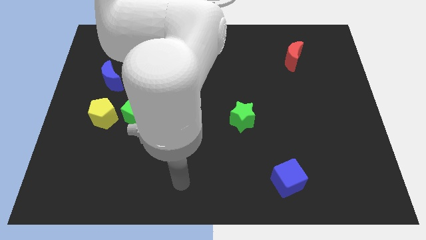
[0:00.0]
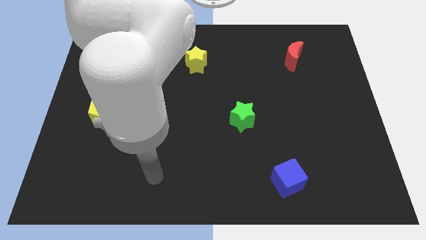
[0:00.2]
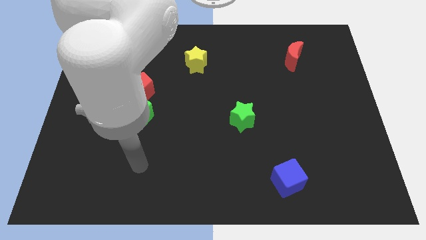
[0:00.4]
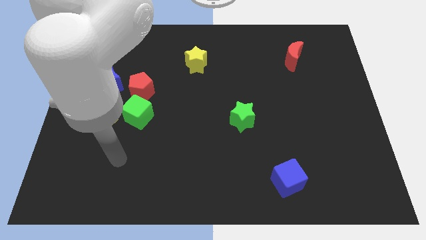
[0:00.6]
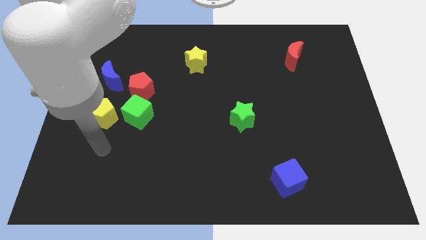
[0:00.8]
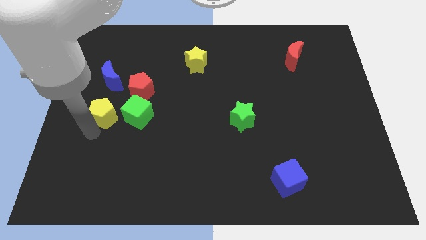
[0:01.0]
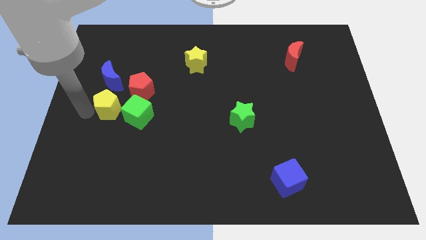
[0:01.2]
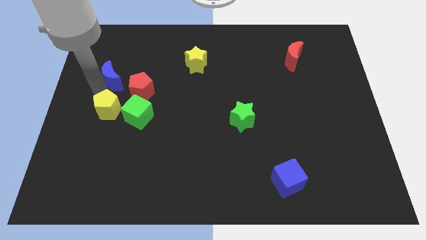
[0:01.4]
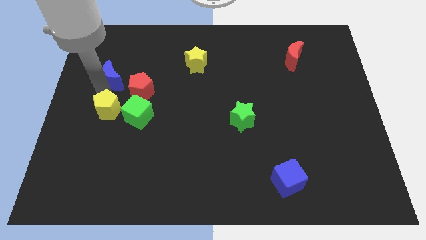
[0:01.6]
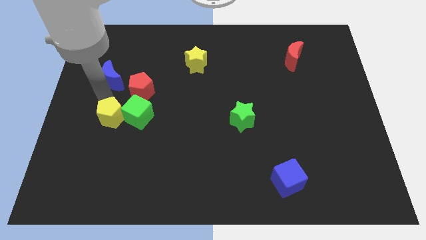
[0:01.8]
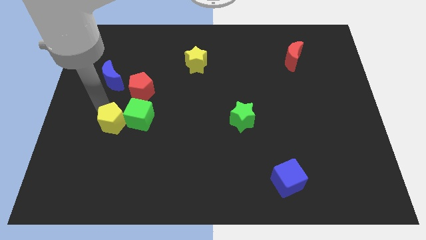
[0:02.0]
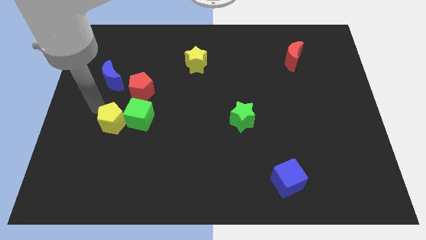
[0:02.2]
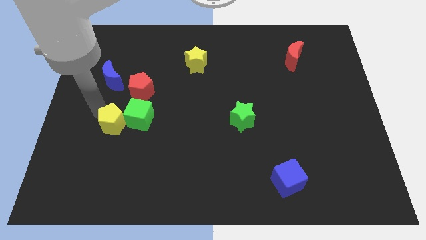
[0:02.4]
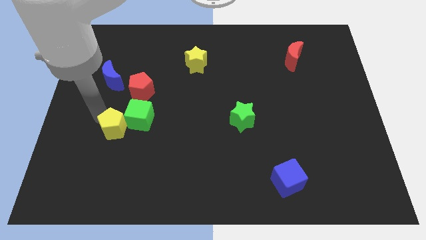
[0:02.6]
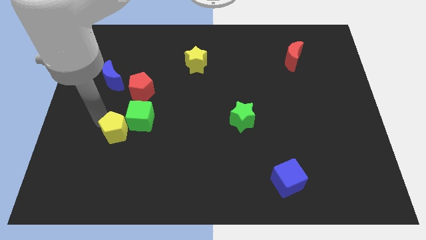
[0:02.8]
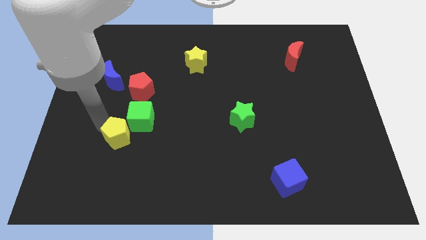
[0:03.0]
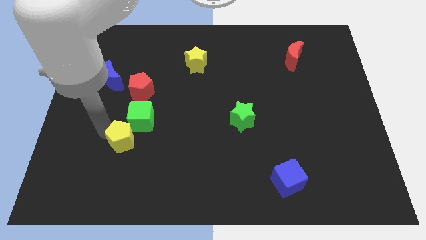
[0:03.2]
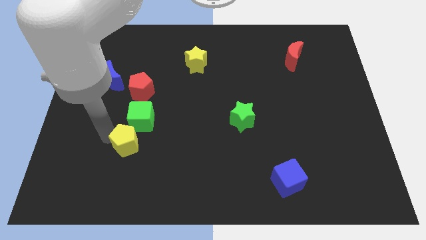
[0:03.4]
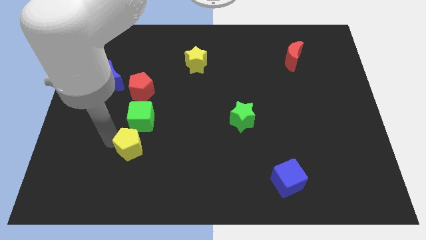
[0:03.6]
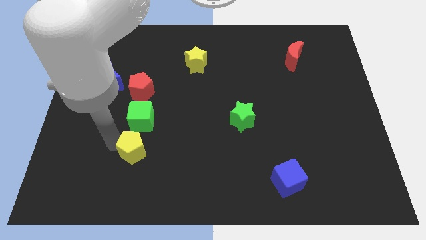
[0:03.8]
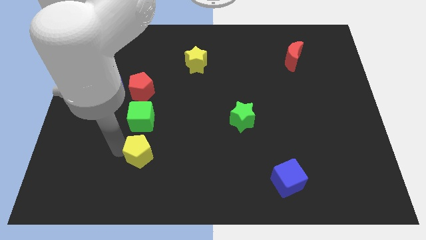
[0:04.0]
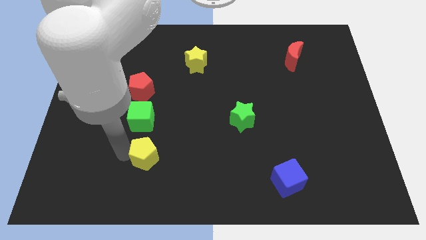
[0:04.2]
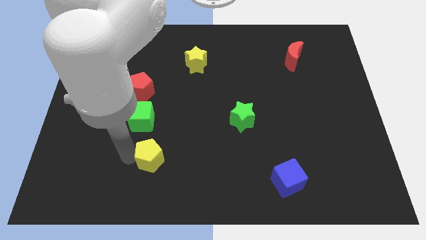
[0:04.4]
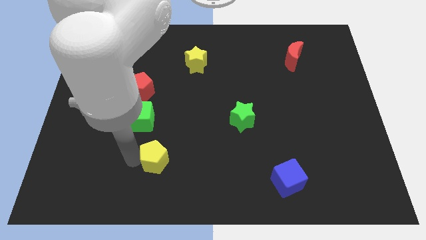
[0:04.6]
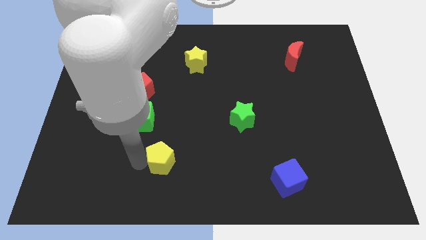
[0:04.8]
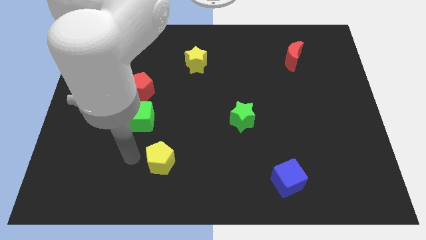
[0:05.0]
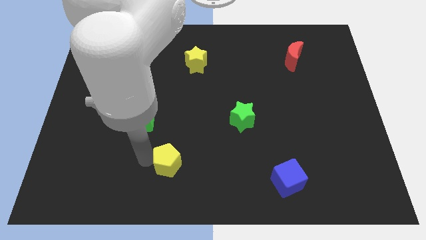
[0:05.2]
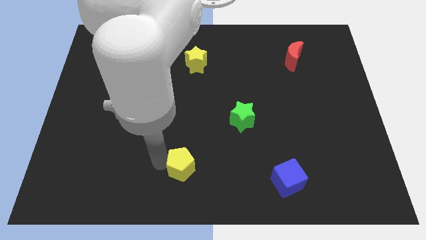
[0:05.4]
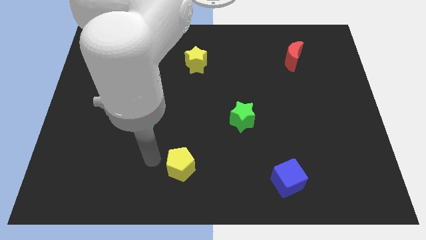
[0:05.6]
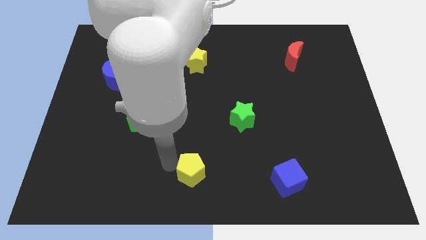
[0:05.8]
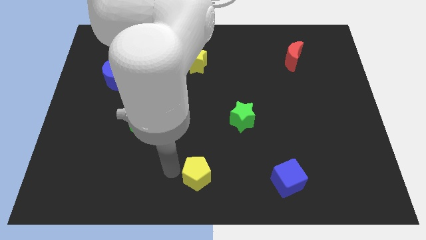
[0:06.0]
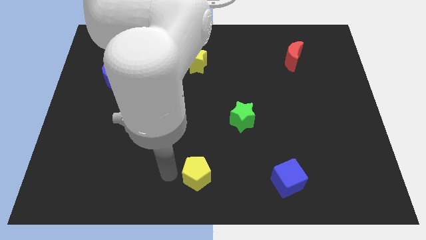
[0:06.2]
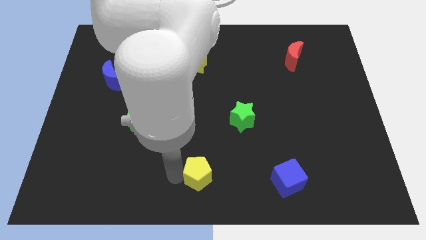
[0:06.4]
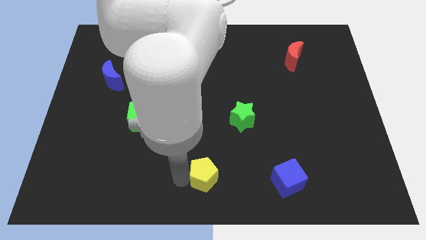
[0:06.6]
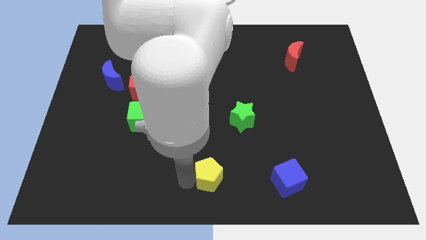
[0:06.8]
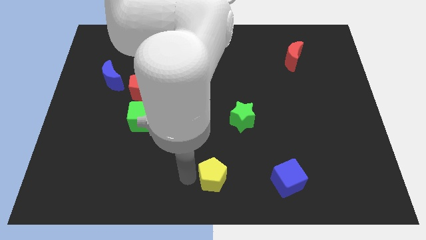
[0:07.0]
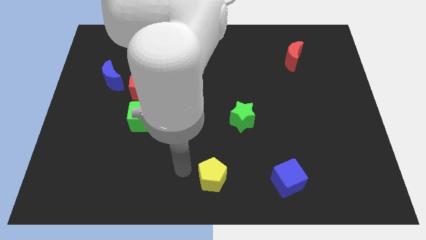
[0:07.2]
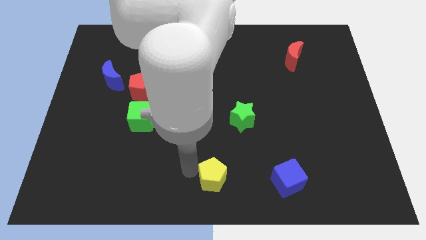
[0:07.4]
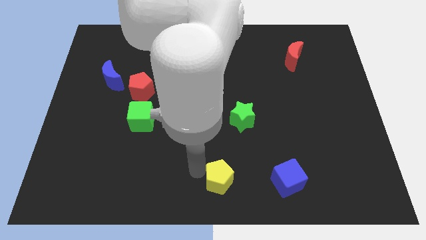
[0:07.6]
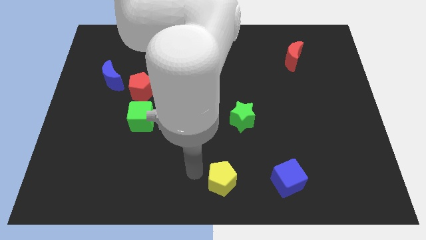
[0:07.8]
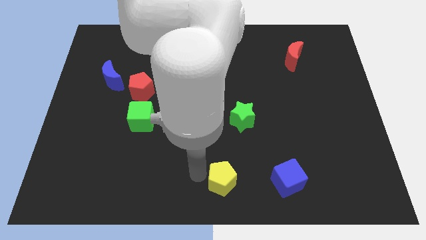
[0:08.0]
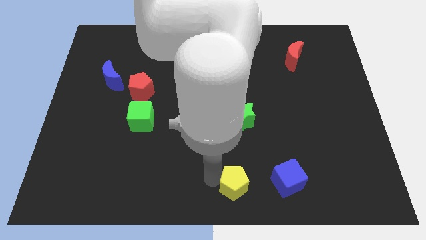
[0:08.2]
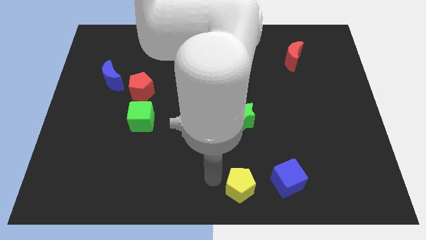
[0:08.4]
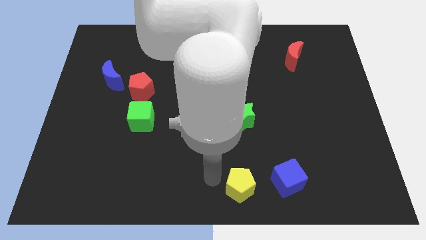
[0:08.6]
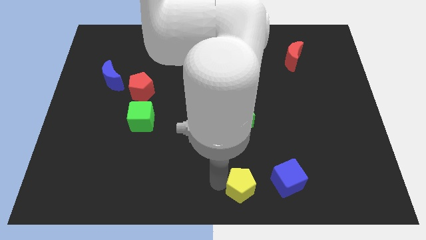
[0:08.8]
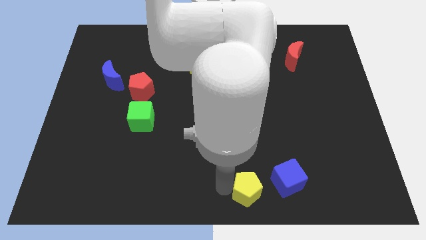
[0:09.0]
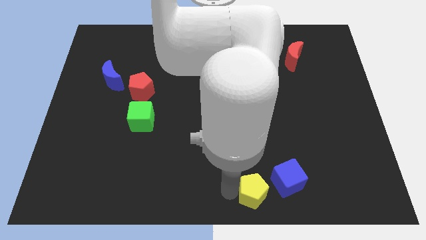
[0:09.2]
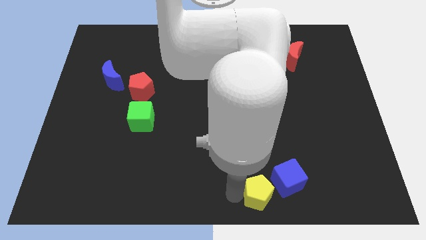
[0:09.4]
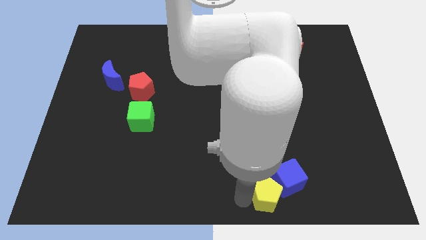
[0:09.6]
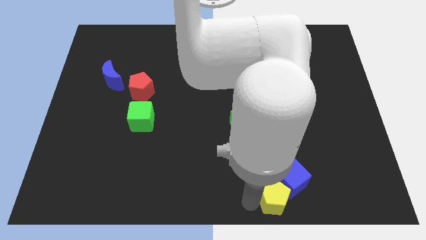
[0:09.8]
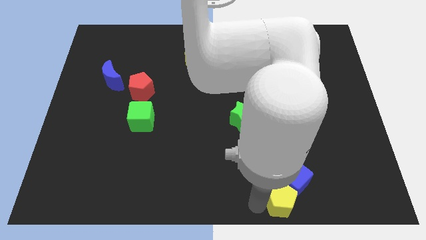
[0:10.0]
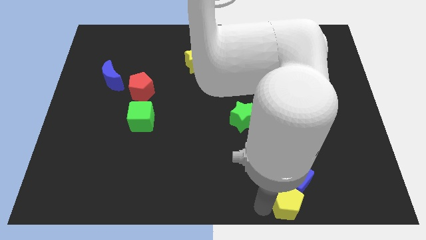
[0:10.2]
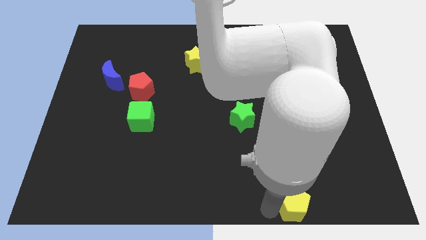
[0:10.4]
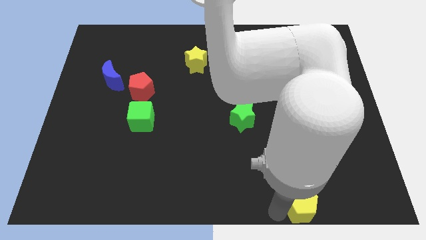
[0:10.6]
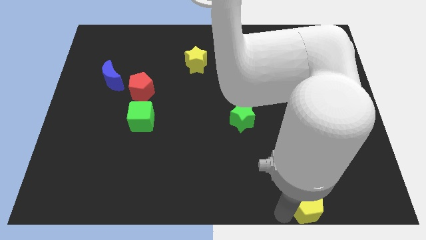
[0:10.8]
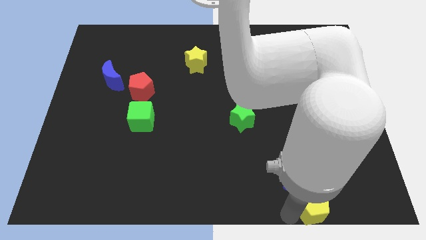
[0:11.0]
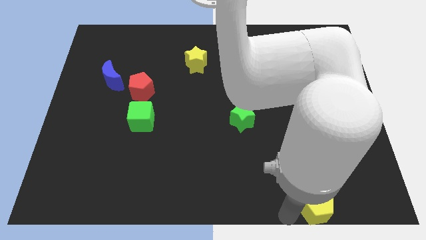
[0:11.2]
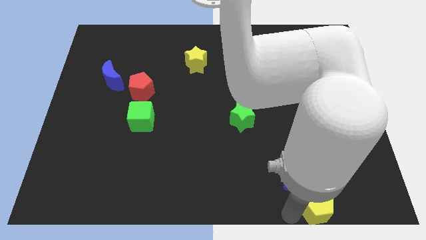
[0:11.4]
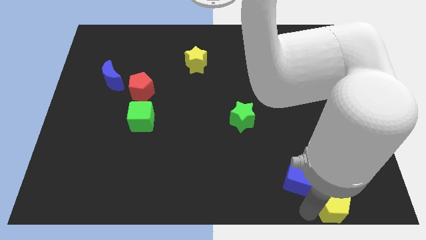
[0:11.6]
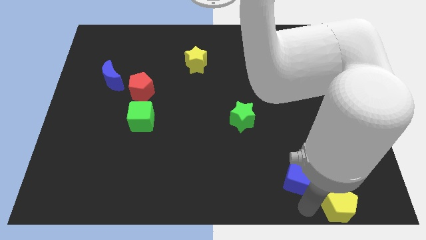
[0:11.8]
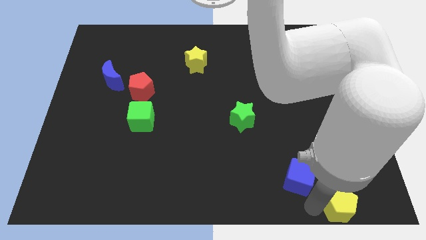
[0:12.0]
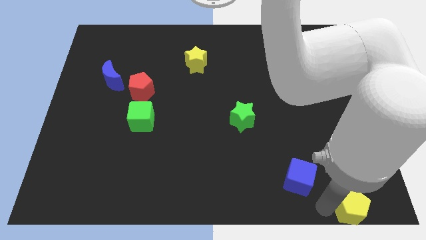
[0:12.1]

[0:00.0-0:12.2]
slide the yellow pentagon to the bottom right of the board
